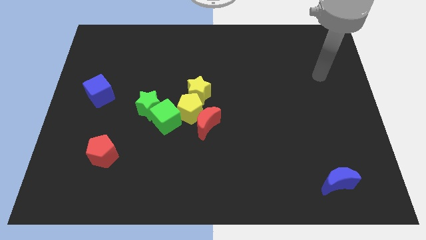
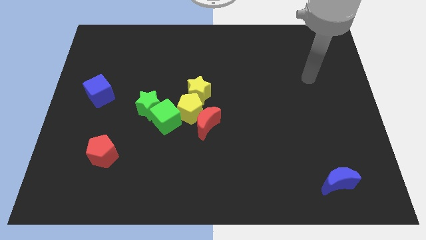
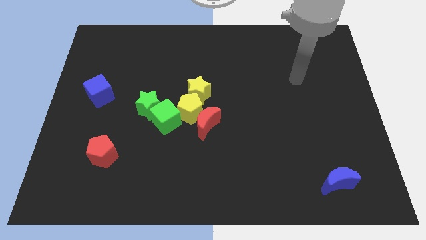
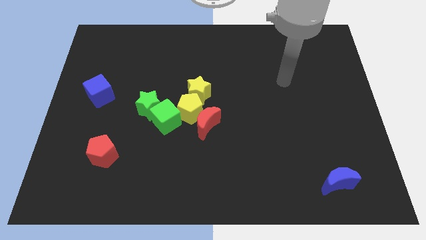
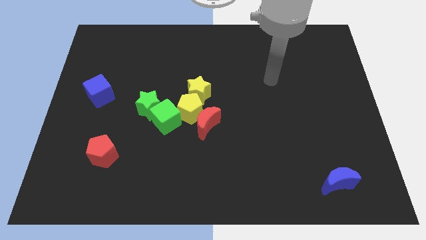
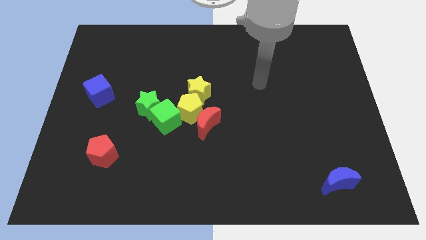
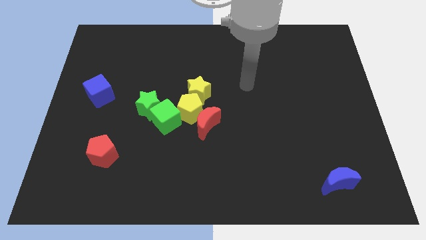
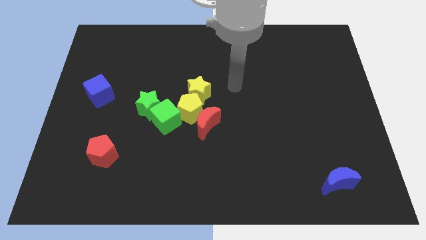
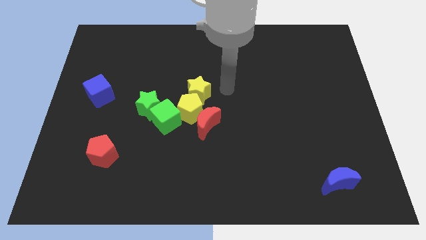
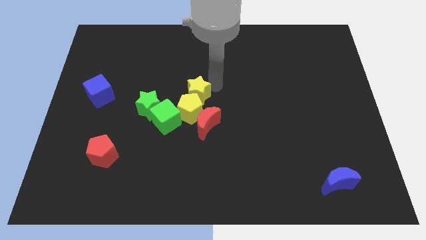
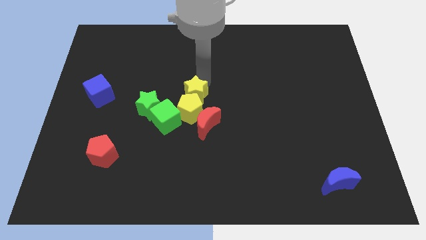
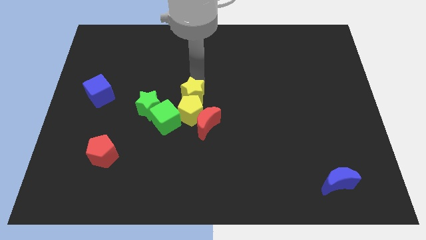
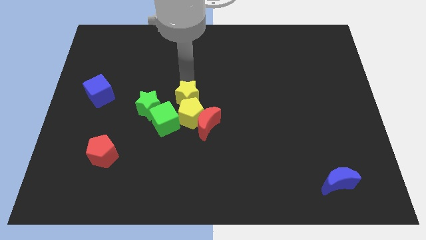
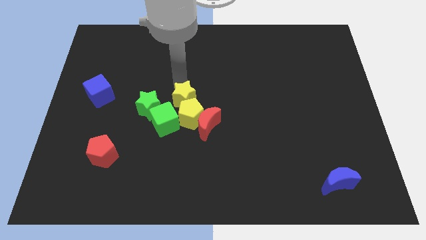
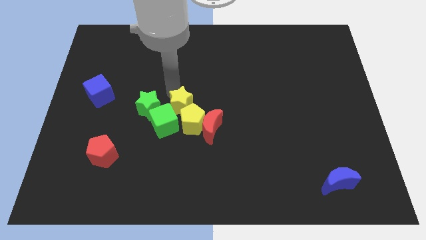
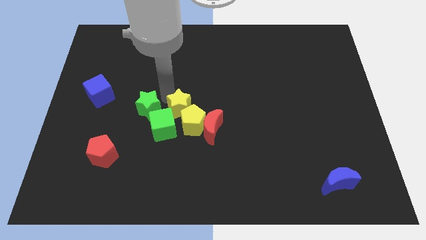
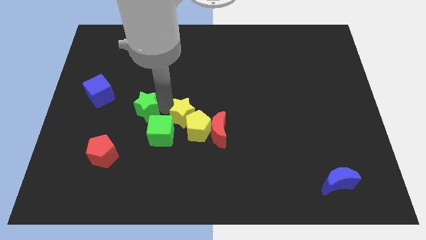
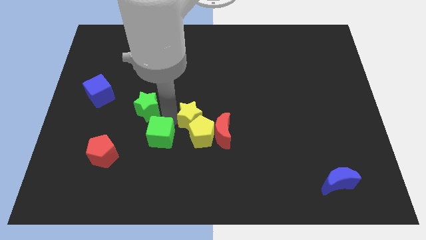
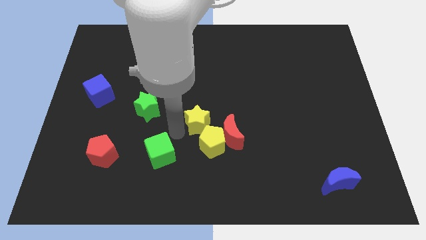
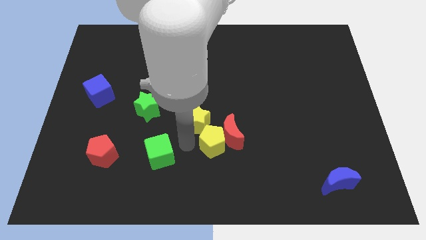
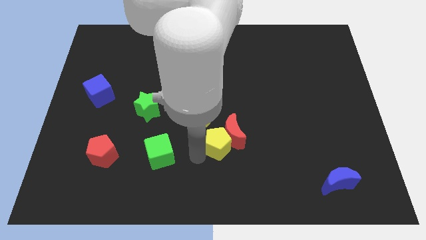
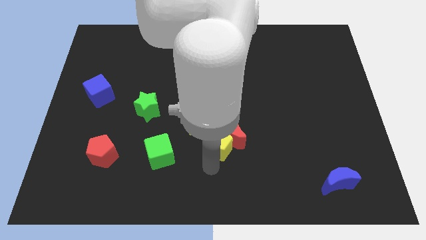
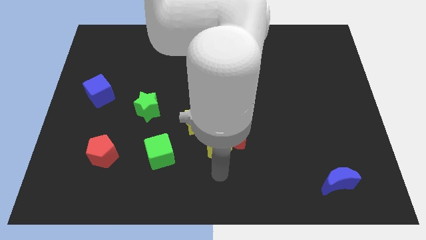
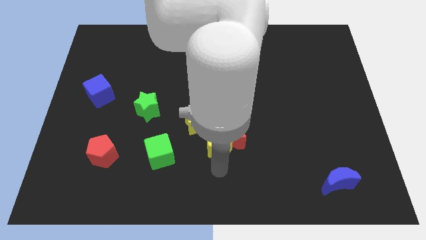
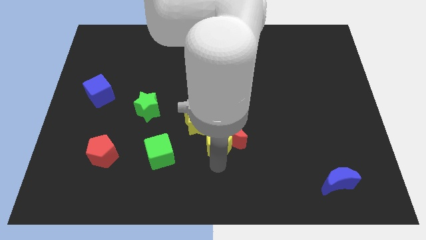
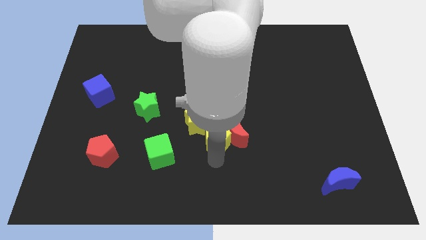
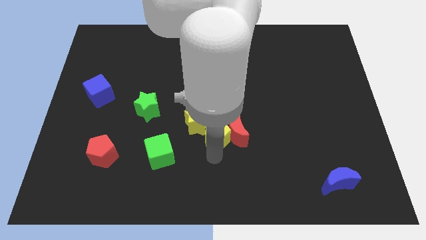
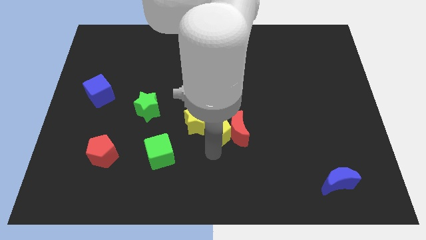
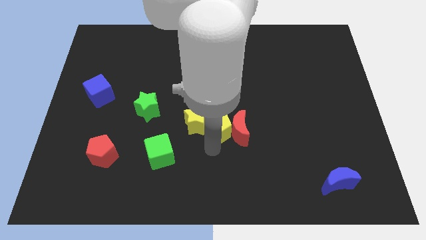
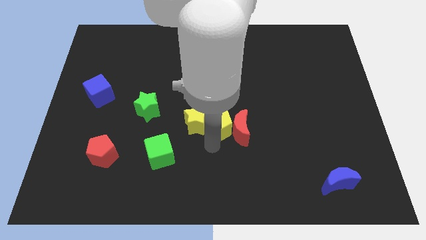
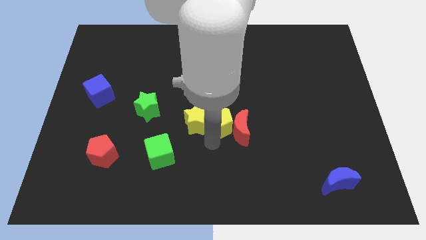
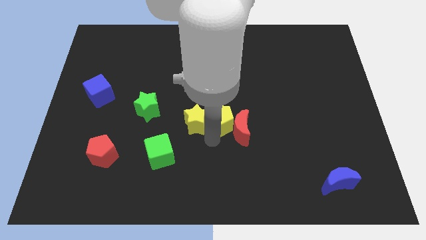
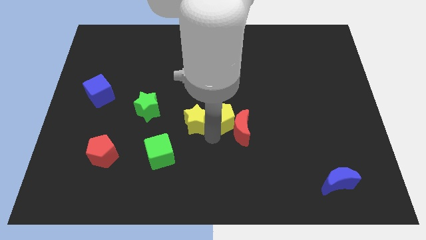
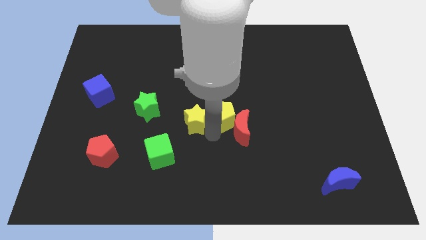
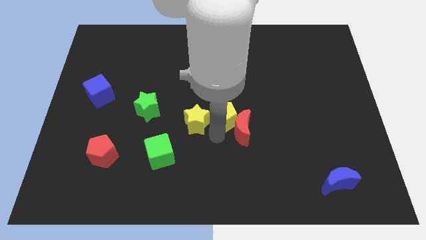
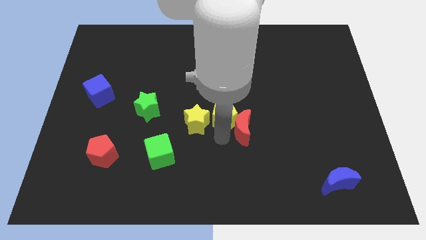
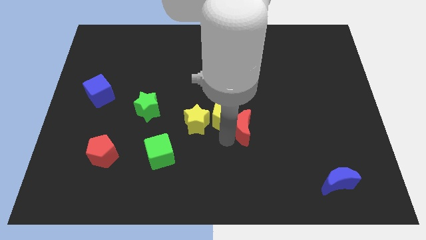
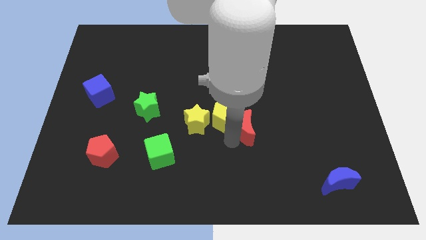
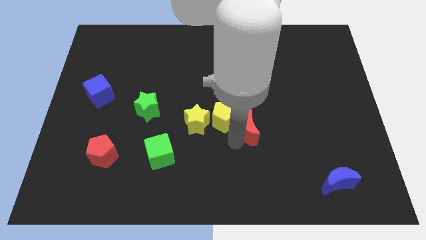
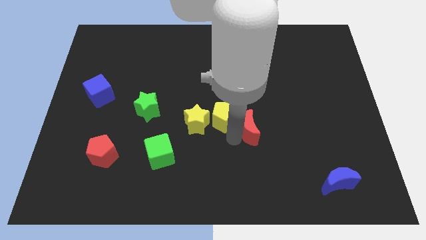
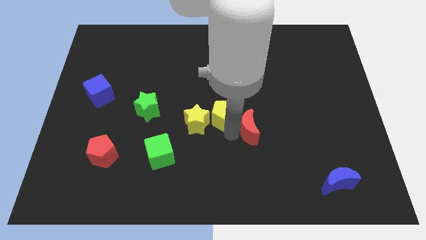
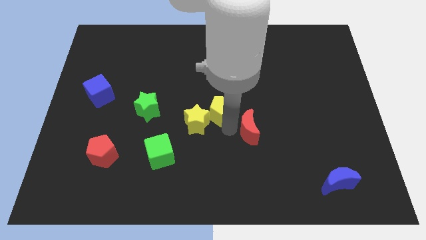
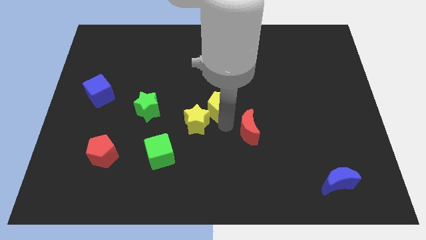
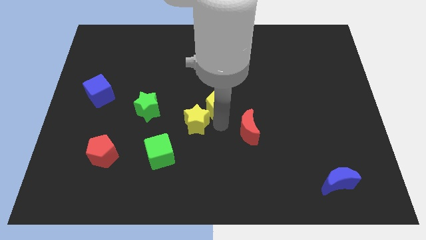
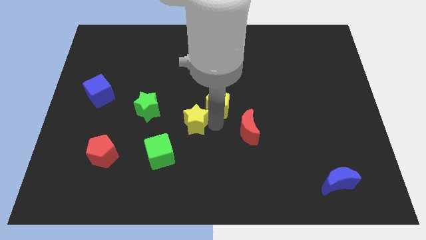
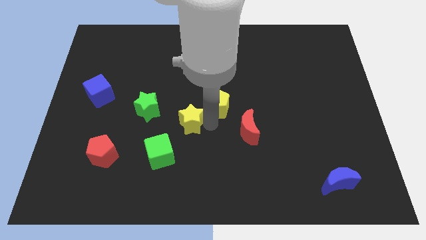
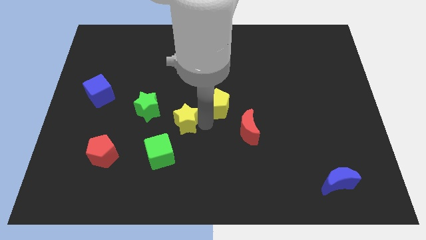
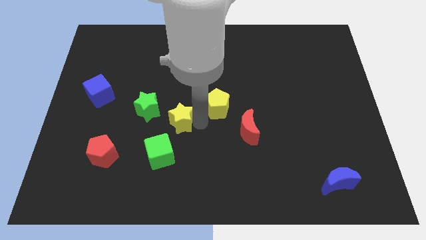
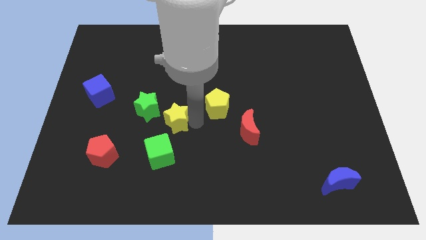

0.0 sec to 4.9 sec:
separate the yellow pentagon from the group of blocks

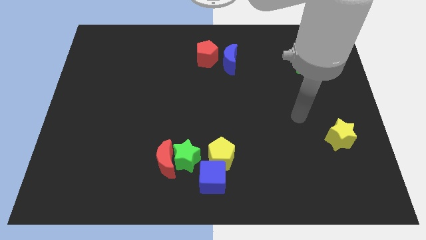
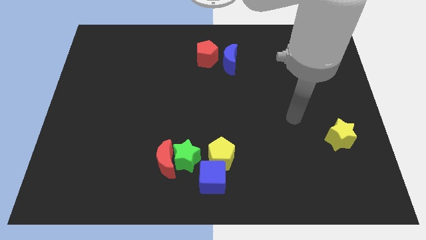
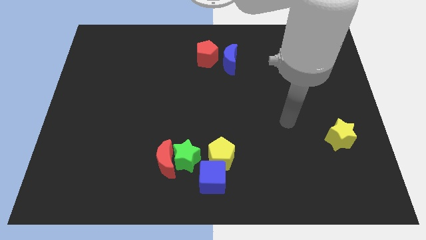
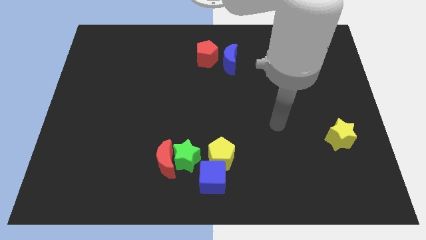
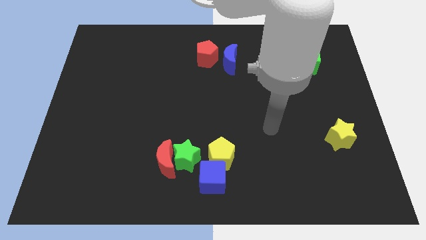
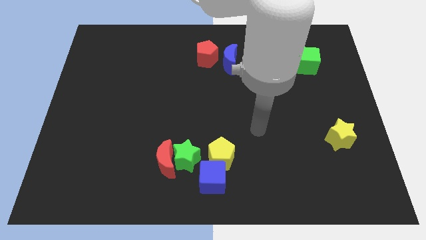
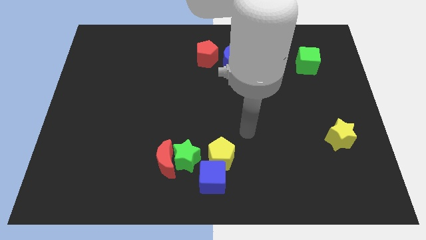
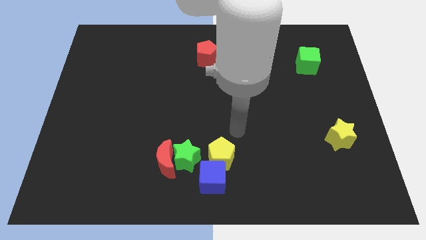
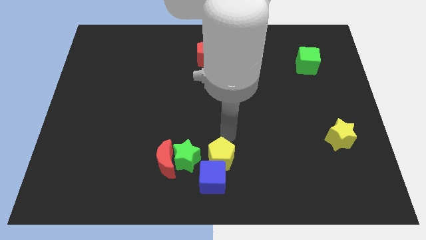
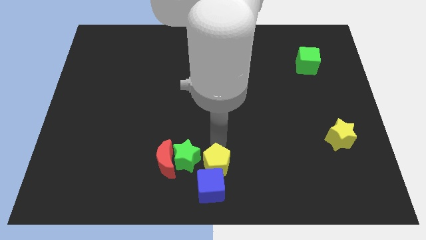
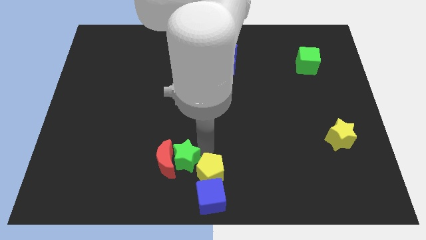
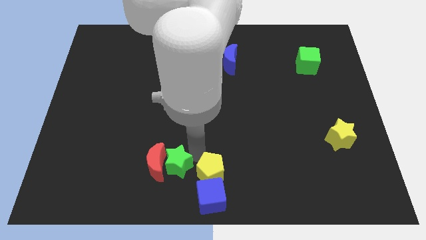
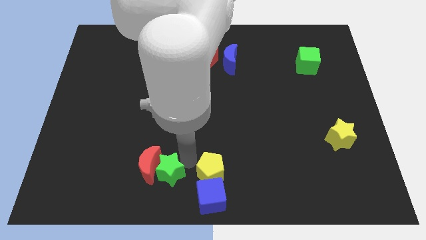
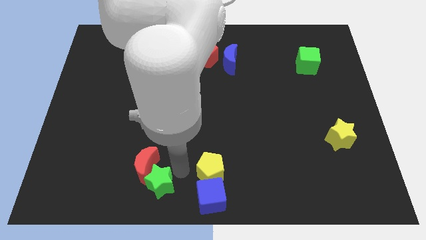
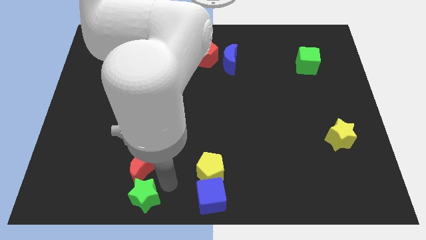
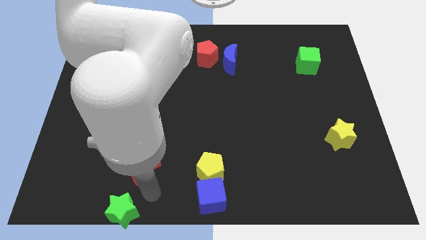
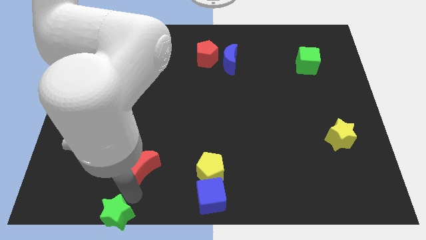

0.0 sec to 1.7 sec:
separate the red moon from the green star

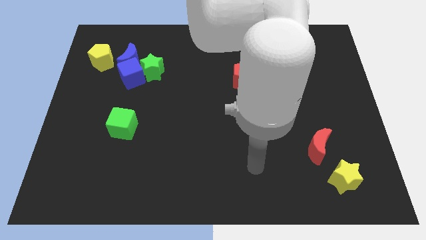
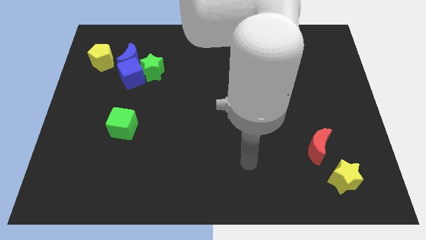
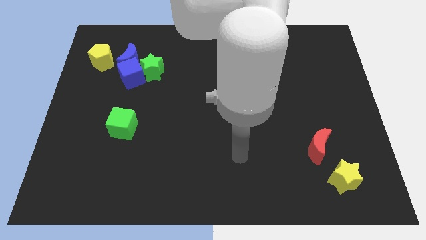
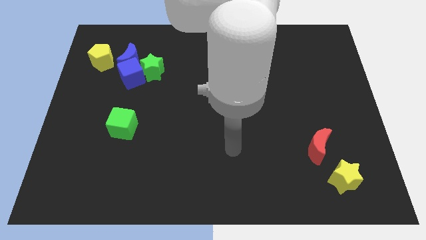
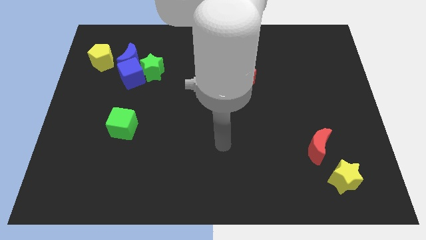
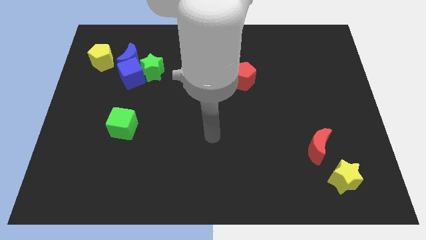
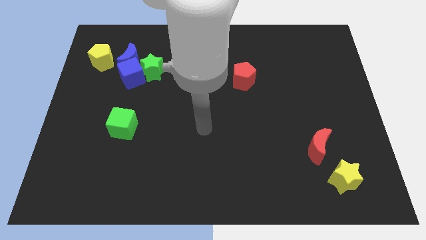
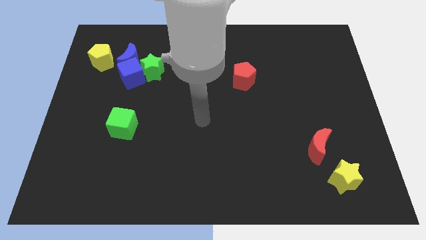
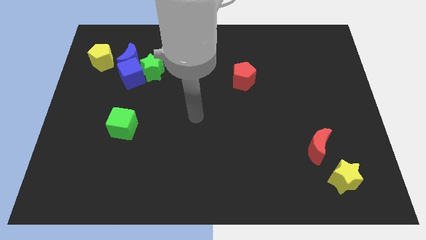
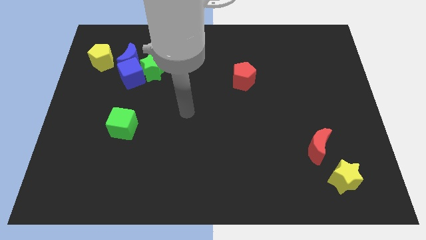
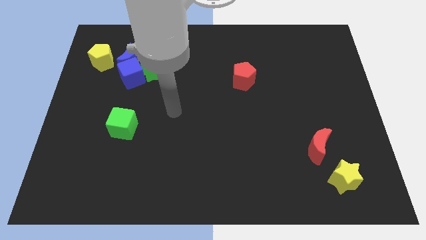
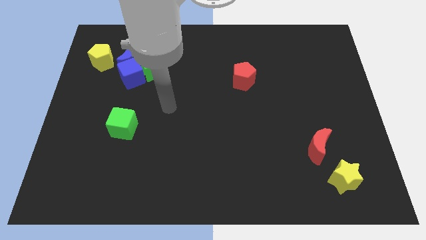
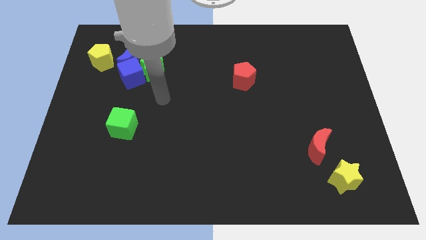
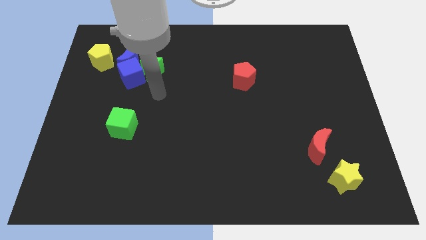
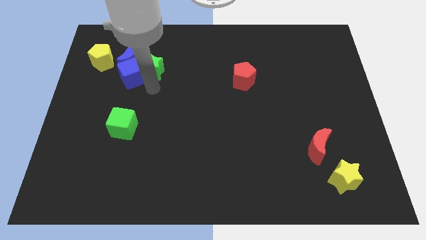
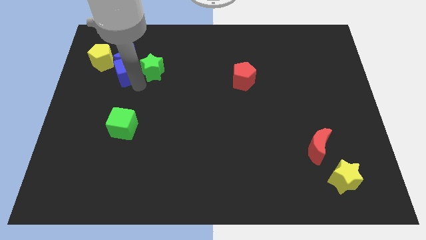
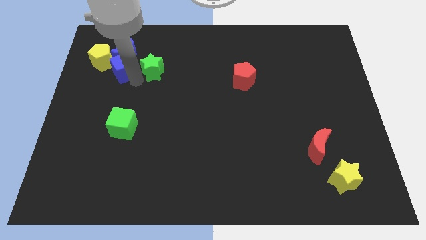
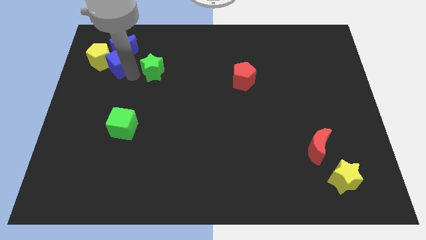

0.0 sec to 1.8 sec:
move the green star away from the blue cube and blue moon

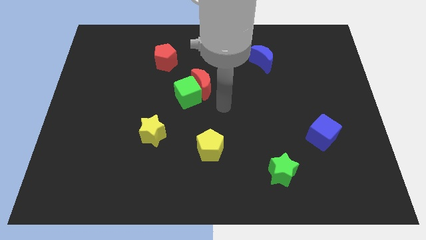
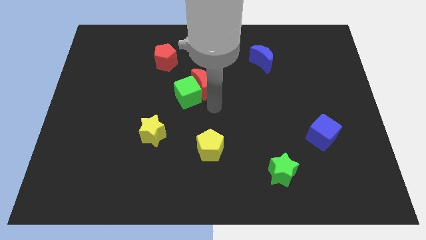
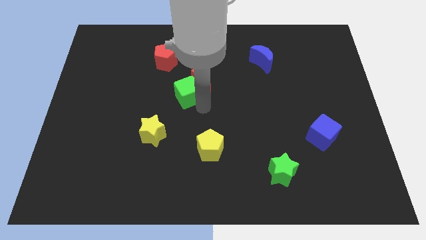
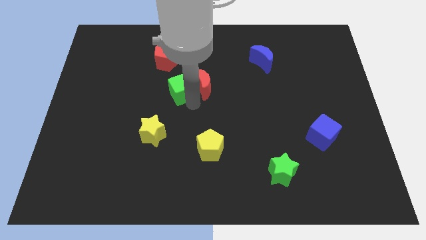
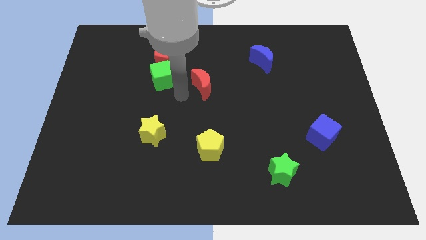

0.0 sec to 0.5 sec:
move the red moon away from the green cube

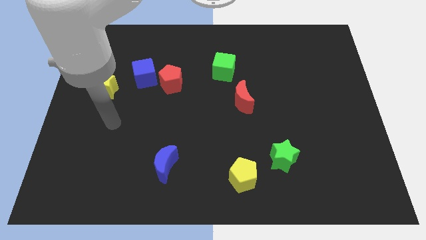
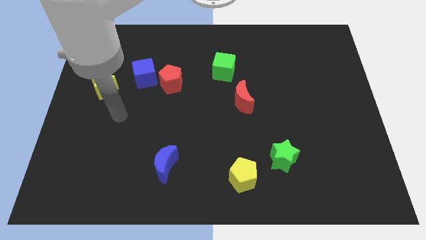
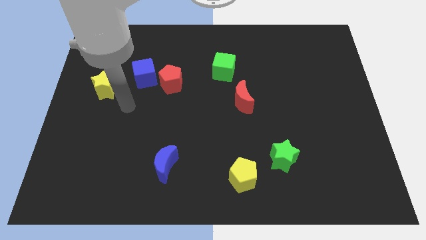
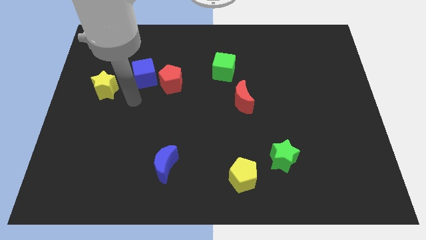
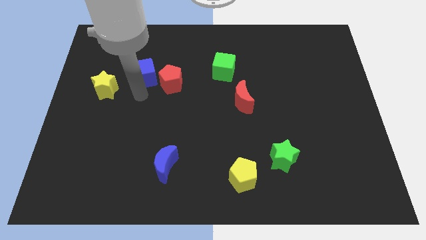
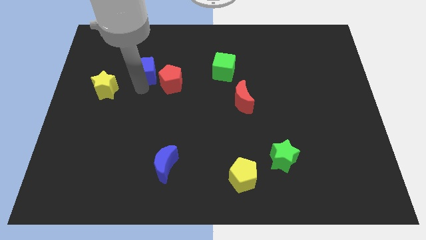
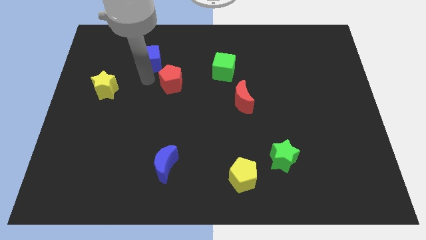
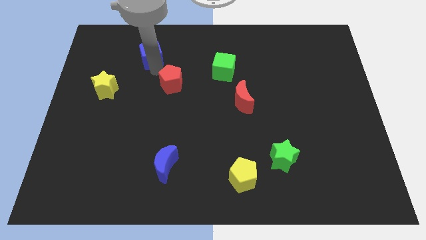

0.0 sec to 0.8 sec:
separate the red pentagon from the blue cube
